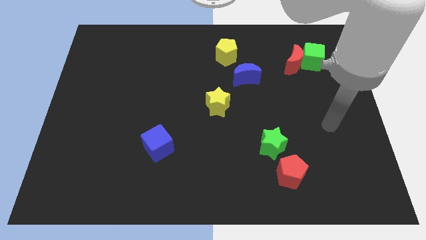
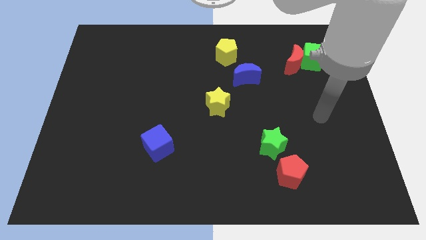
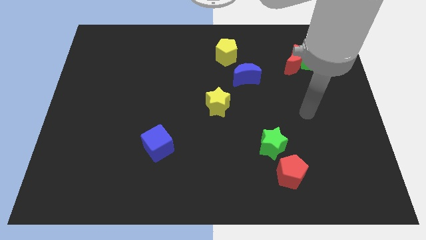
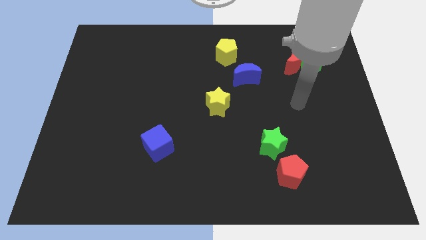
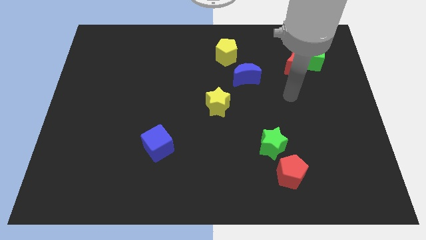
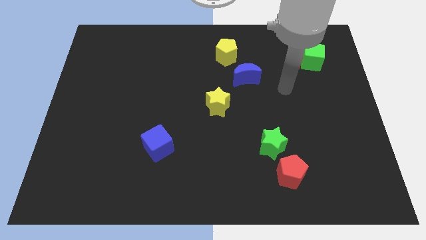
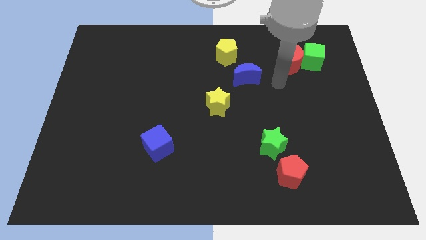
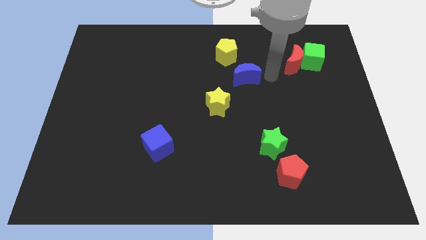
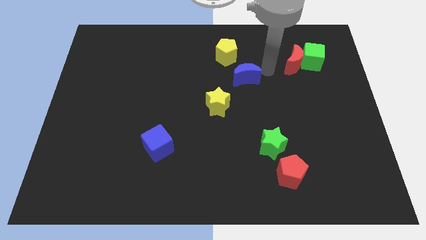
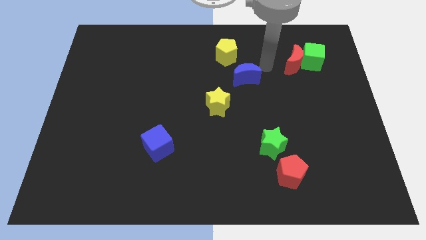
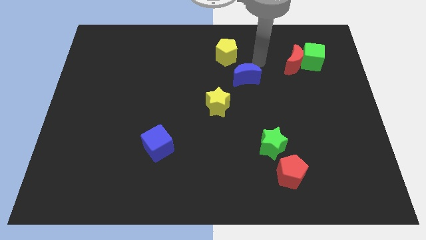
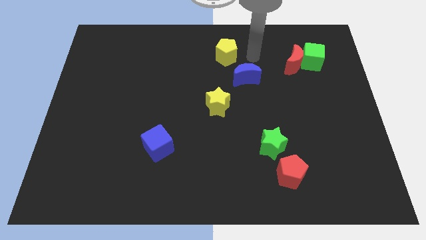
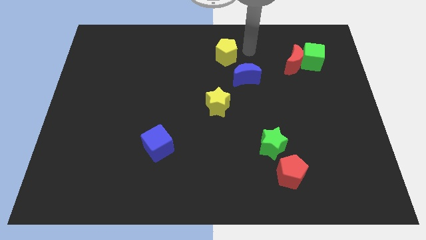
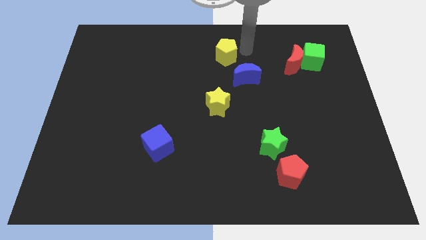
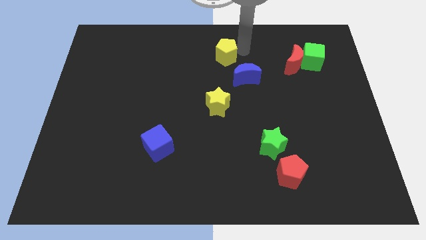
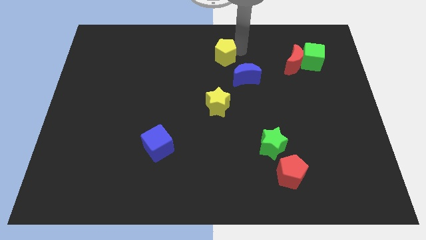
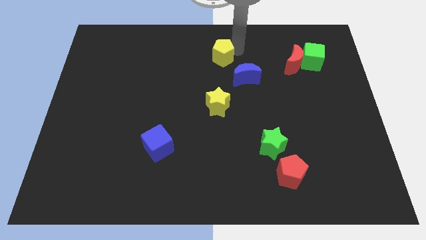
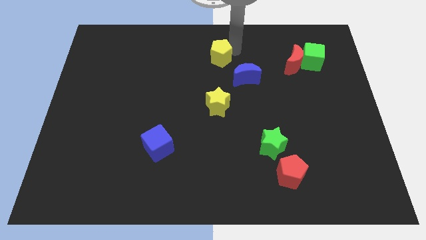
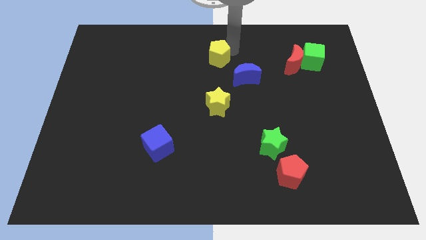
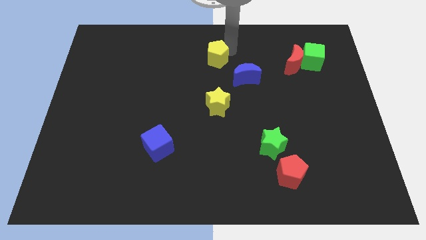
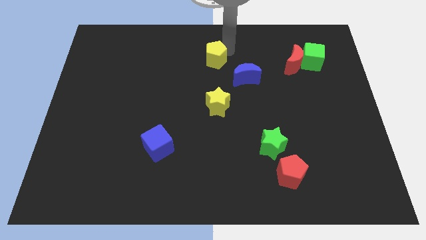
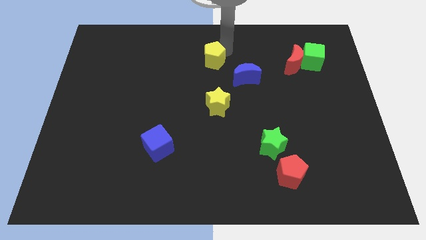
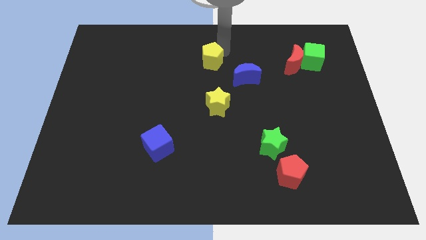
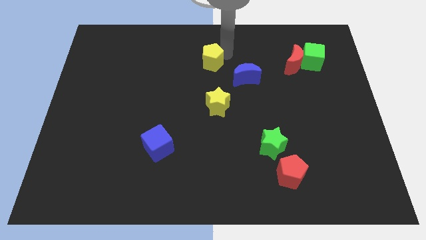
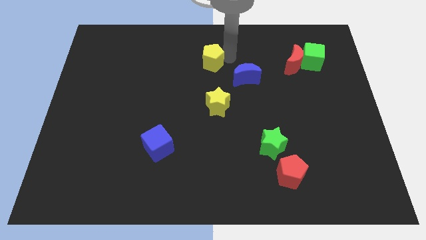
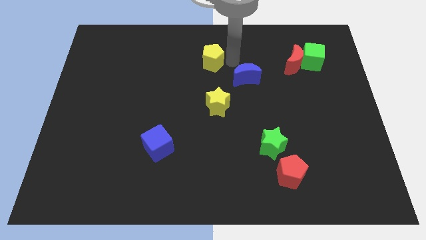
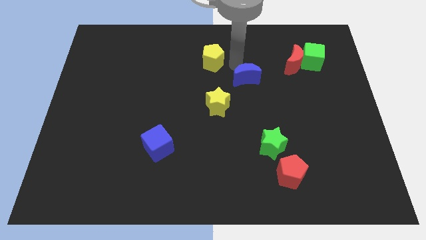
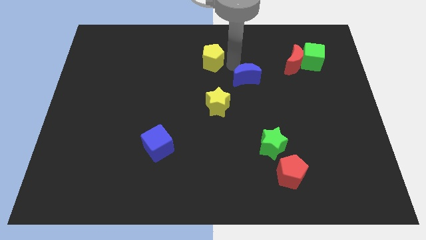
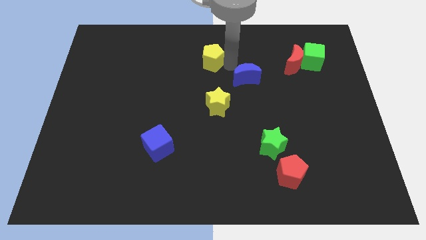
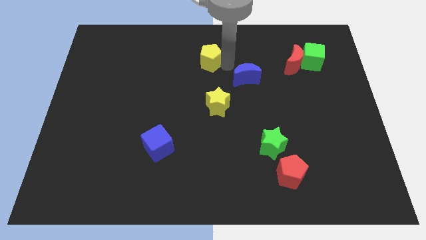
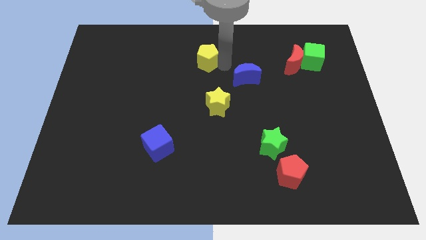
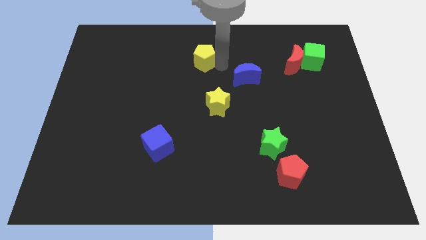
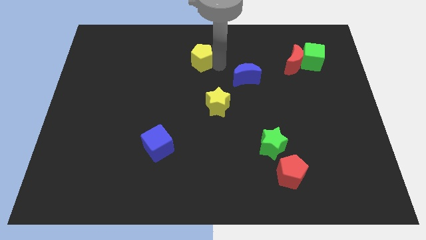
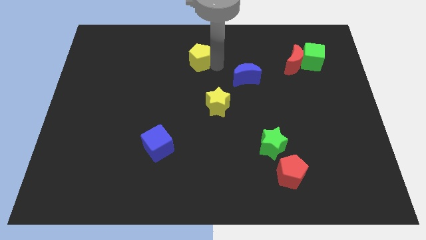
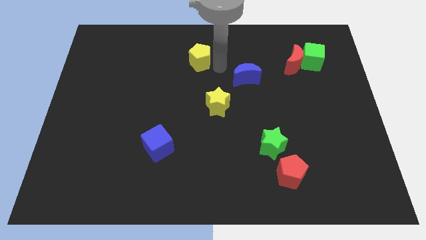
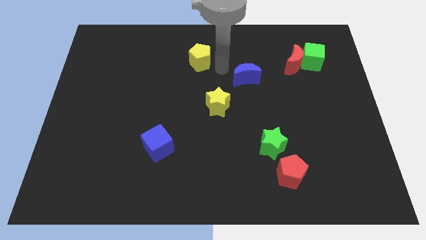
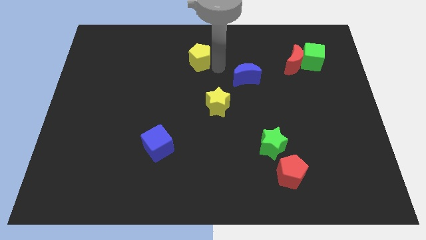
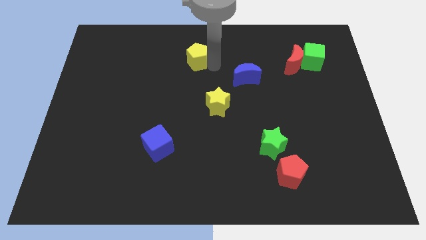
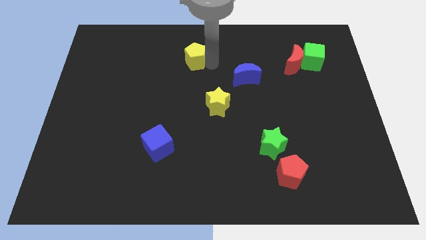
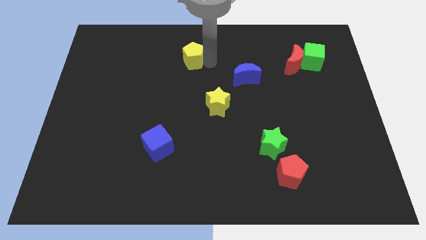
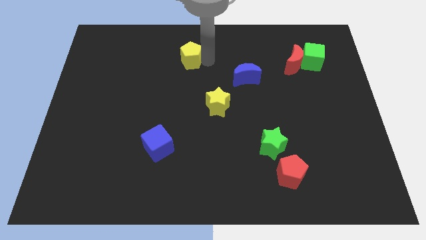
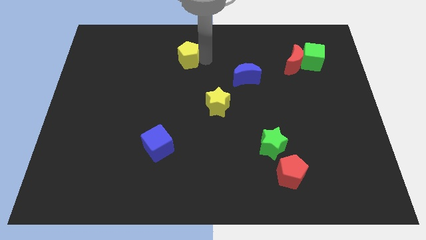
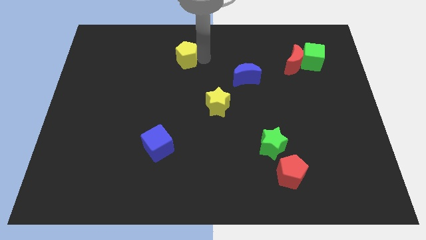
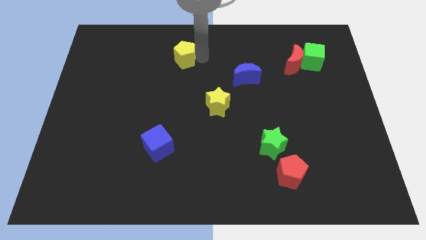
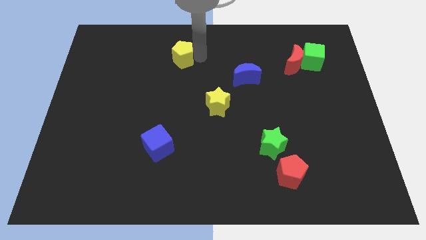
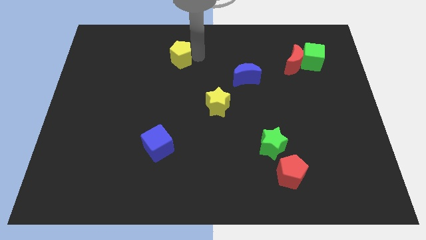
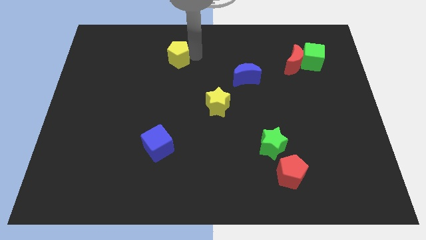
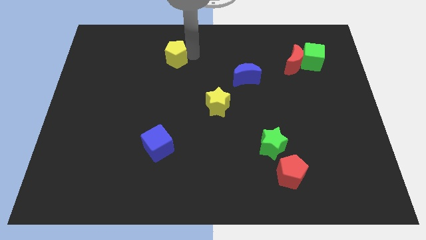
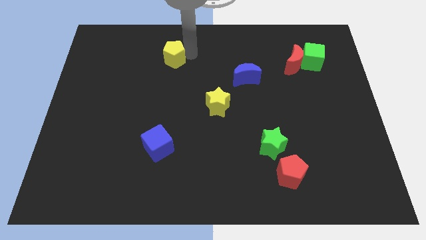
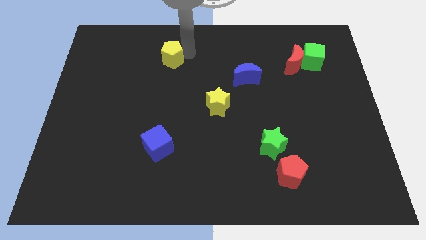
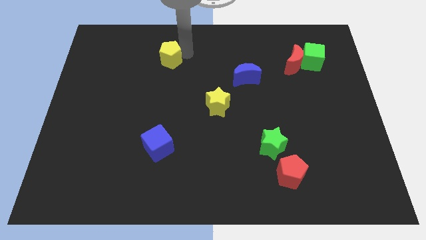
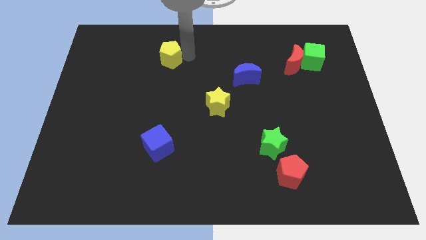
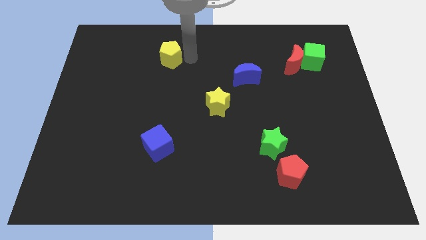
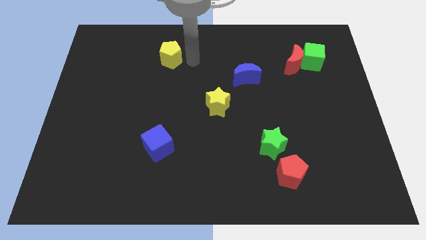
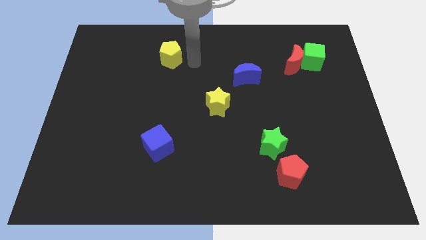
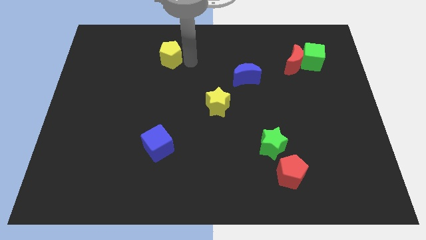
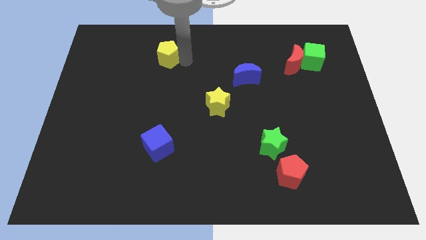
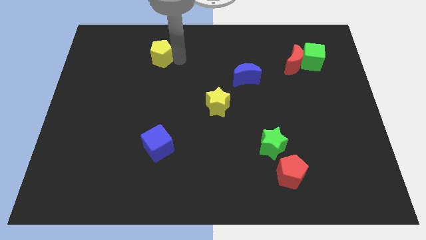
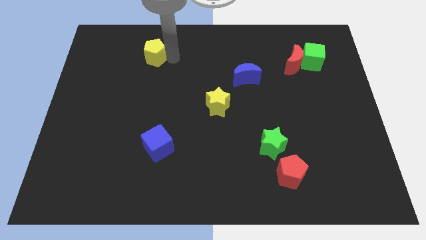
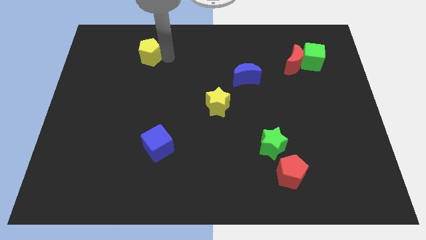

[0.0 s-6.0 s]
move the yellow pentagon to the left

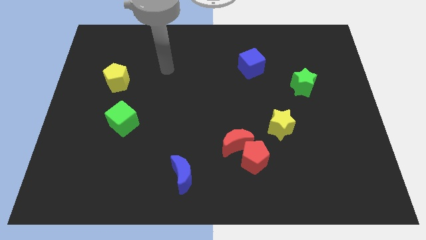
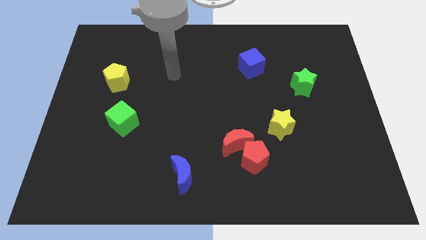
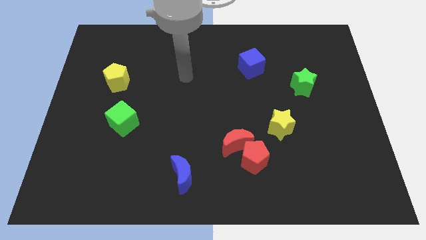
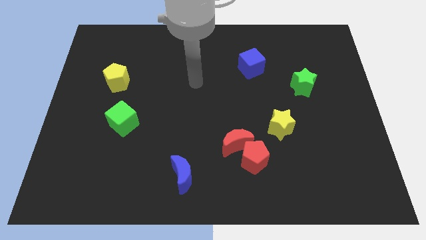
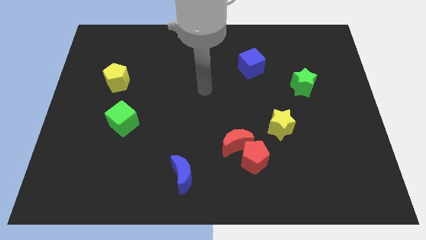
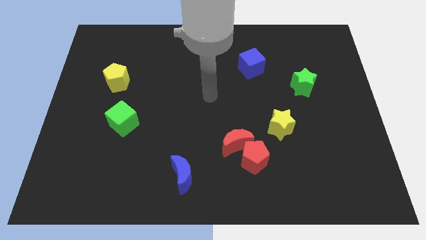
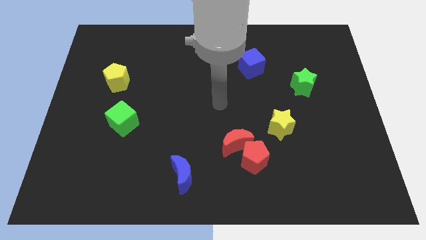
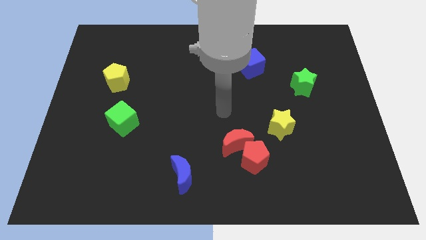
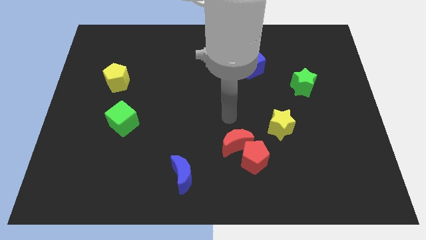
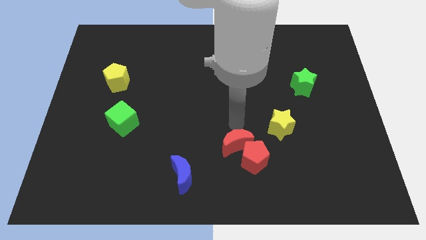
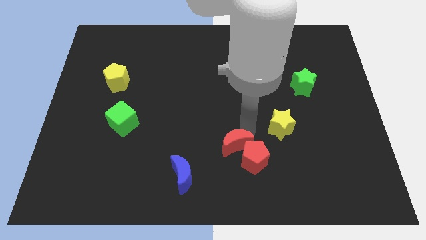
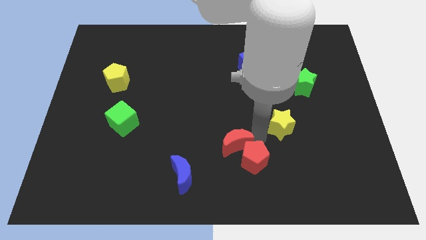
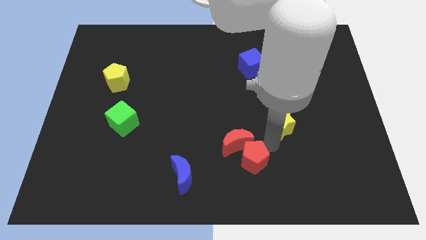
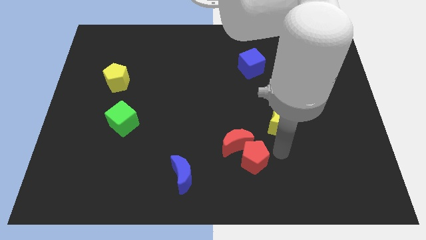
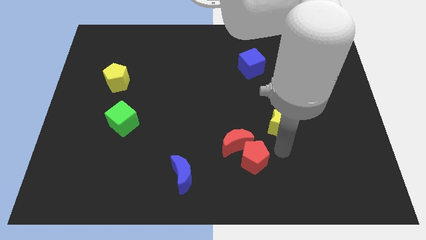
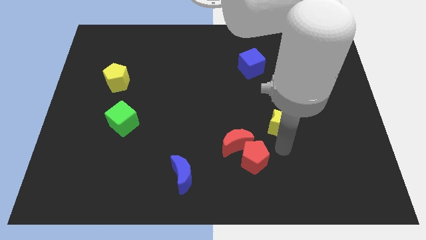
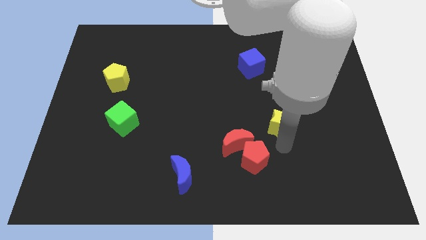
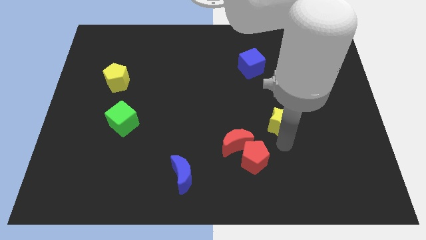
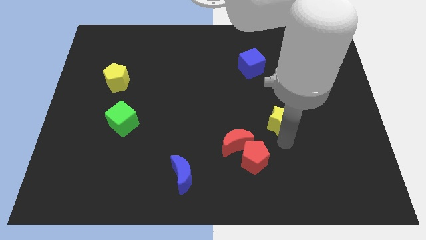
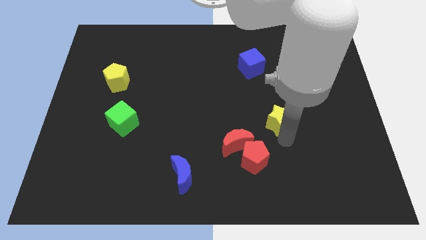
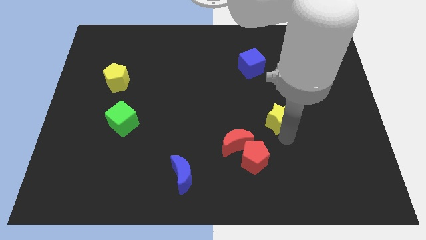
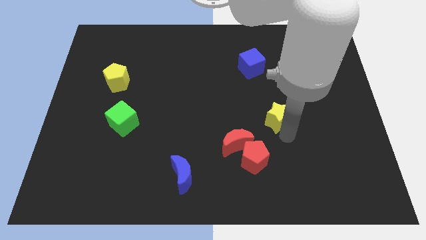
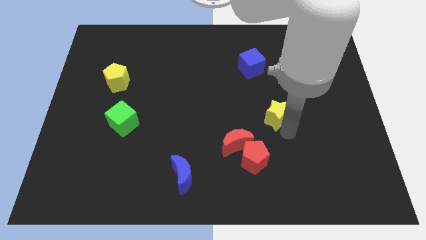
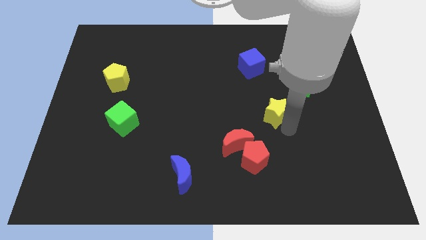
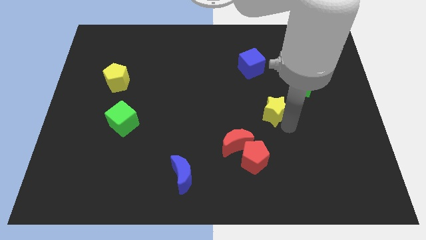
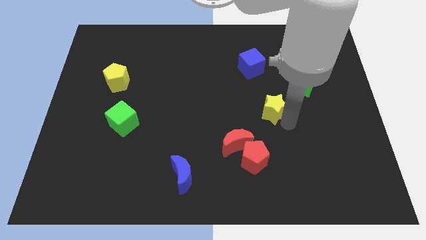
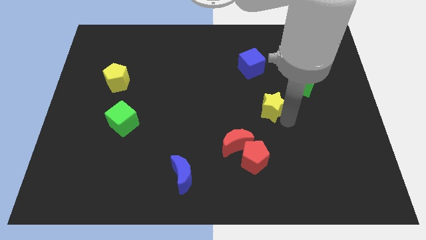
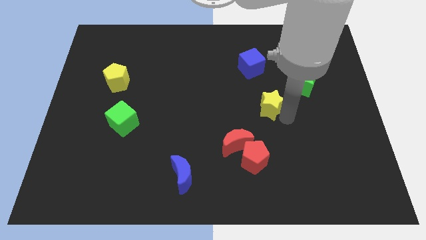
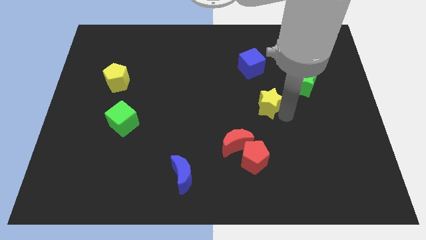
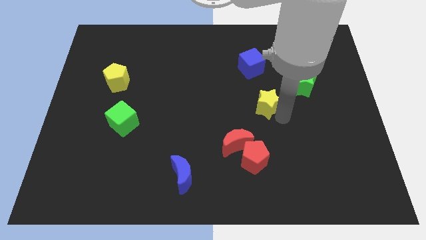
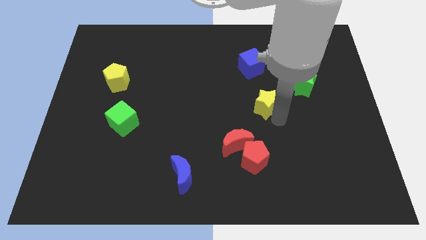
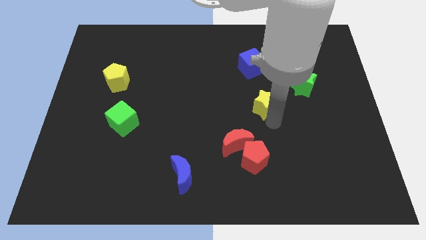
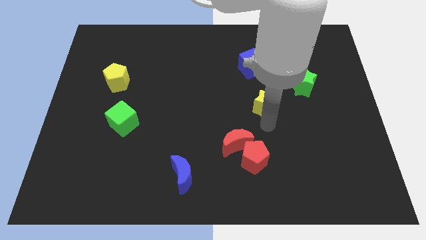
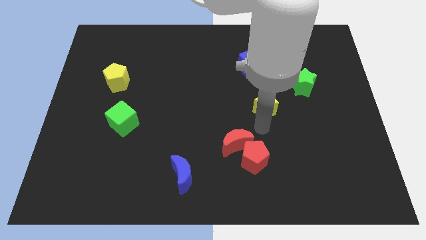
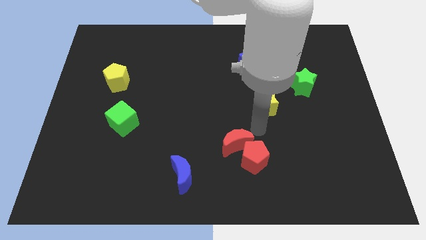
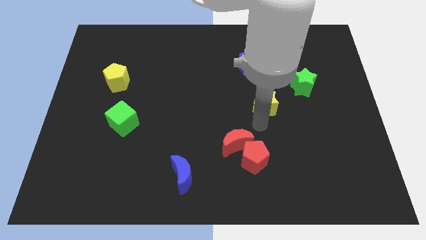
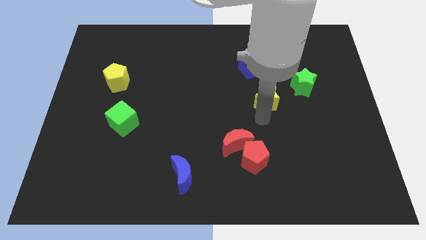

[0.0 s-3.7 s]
push the yellow star a little bit up
